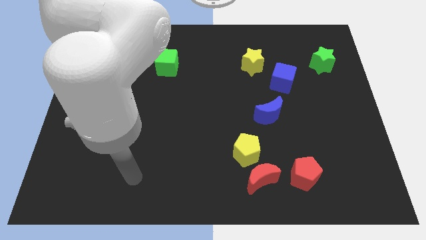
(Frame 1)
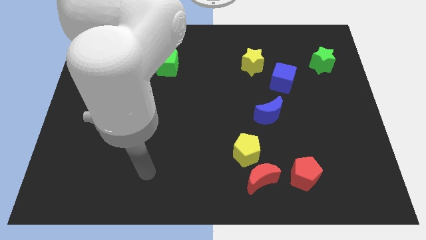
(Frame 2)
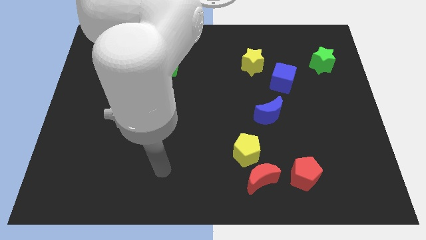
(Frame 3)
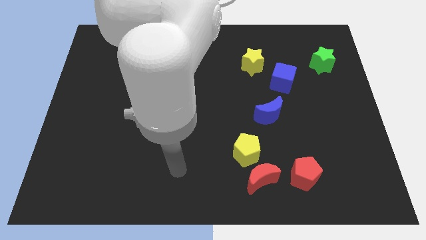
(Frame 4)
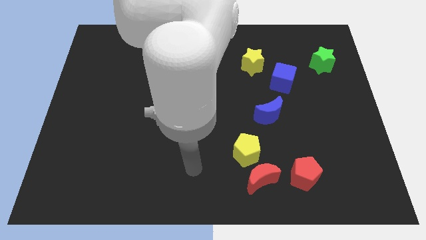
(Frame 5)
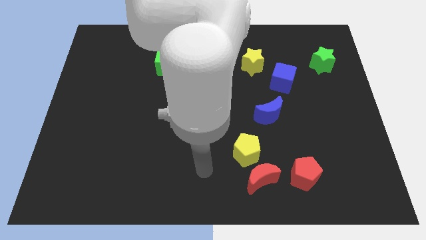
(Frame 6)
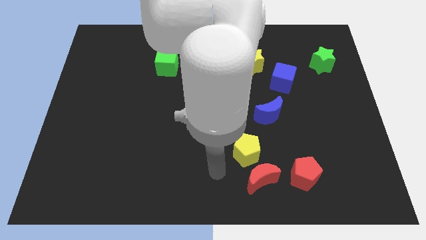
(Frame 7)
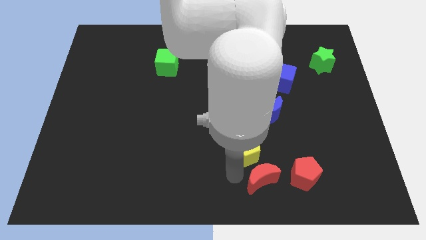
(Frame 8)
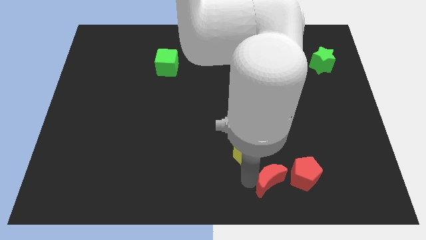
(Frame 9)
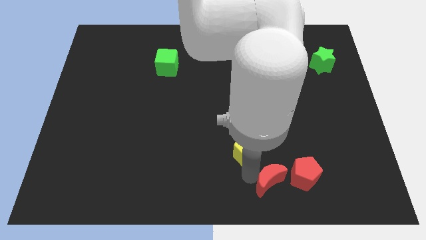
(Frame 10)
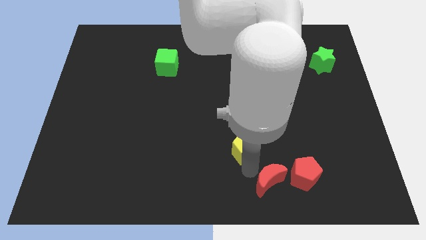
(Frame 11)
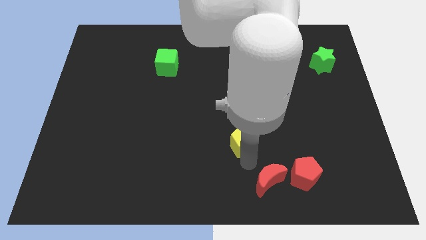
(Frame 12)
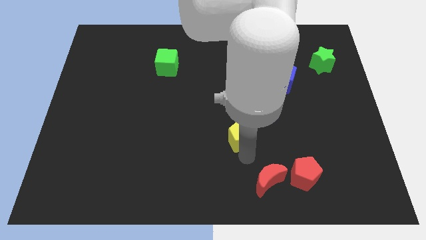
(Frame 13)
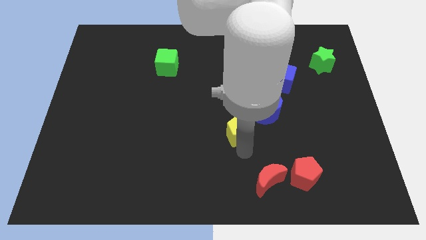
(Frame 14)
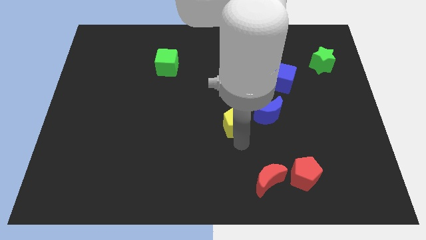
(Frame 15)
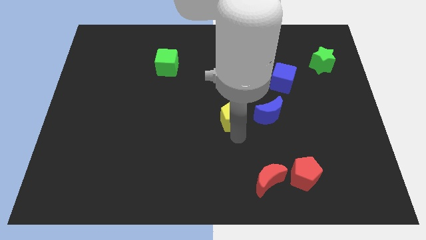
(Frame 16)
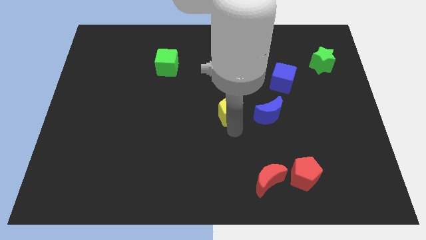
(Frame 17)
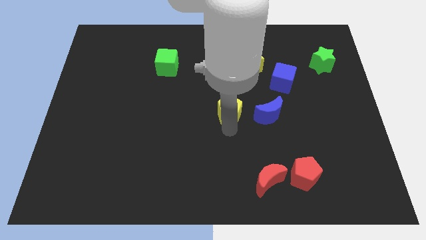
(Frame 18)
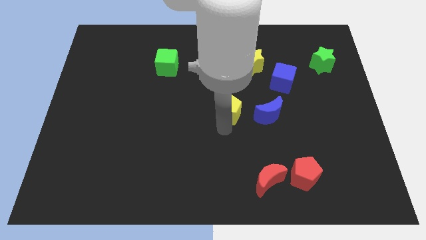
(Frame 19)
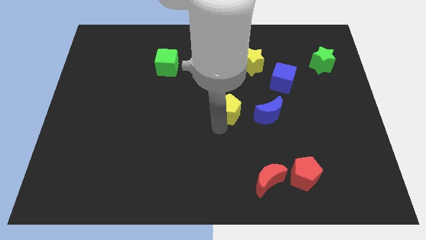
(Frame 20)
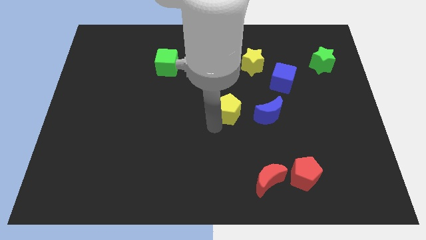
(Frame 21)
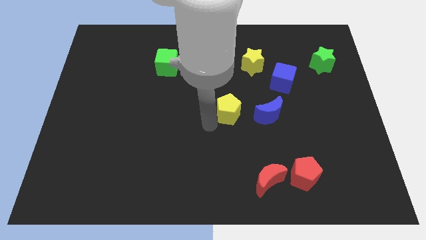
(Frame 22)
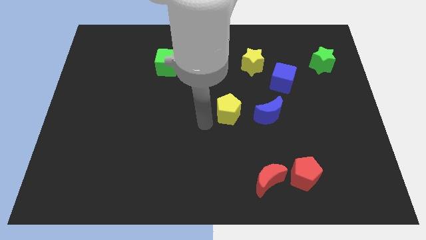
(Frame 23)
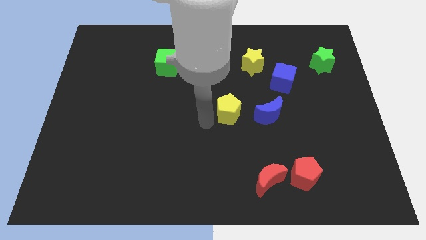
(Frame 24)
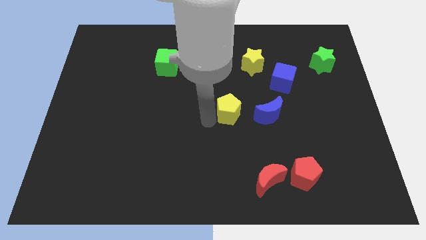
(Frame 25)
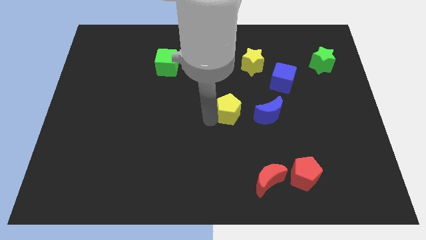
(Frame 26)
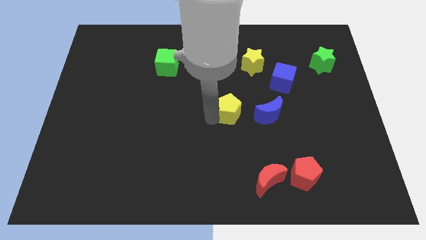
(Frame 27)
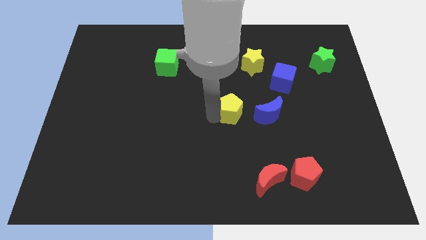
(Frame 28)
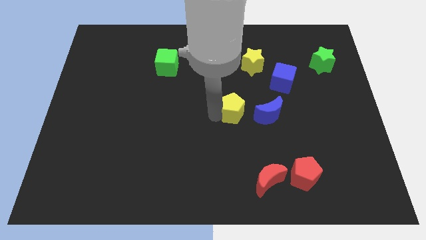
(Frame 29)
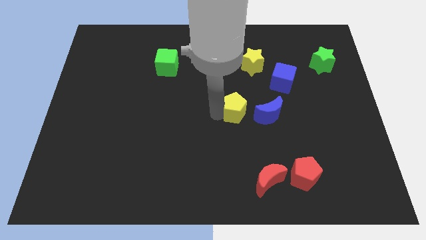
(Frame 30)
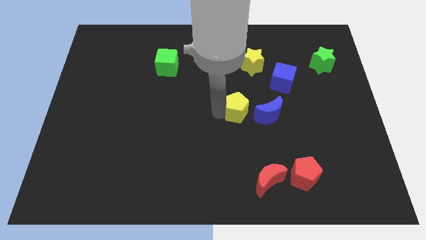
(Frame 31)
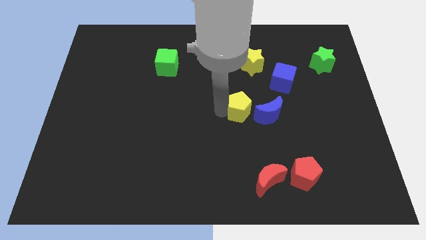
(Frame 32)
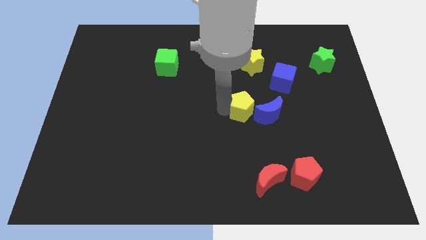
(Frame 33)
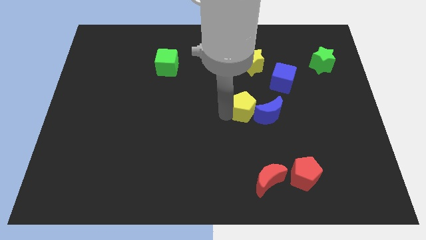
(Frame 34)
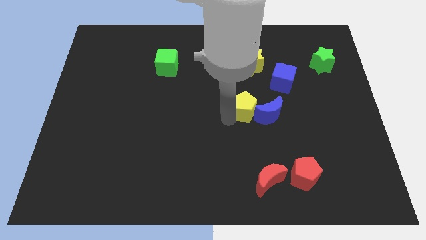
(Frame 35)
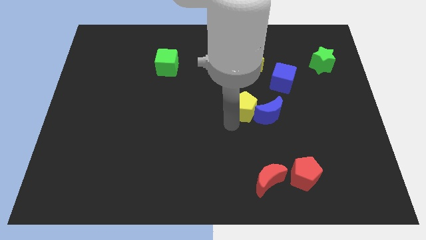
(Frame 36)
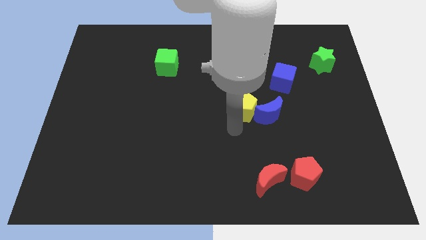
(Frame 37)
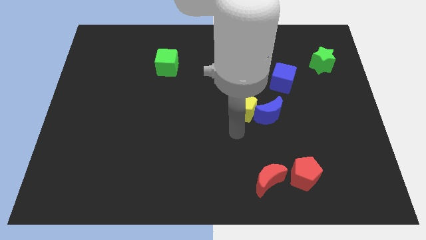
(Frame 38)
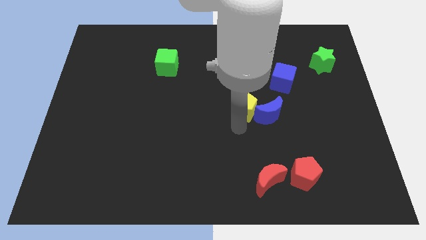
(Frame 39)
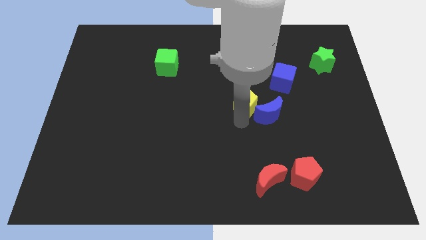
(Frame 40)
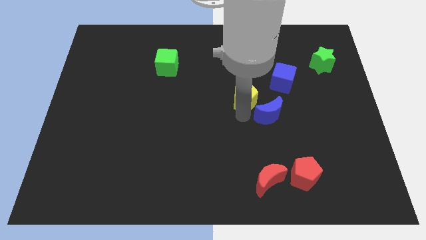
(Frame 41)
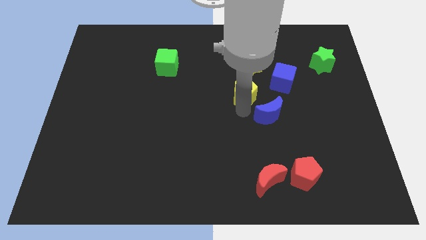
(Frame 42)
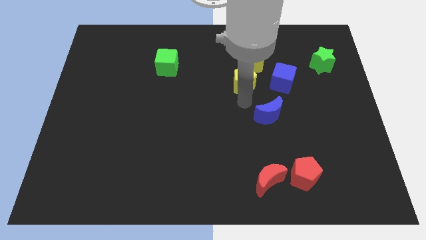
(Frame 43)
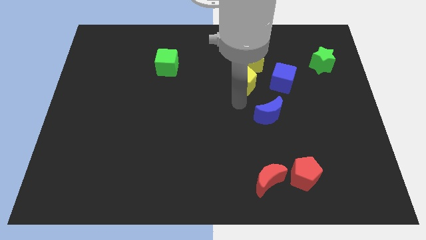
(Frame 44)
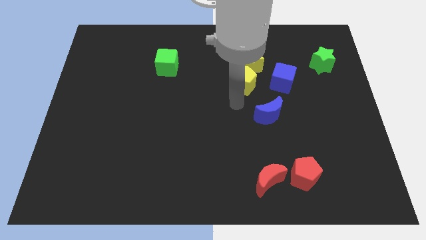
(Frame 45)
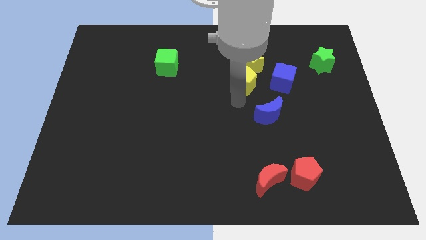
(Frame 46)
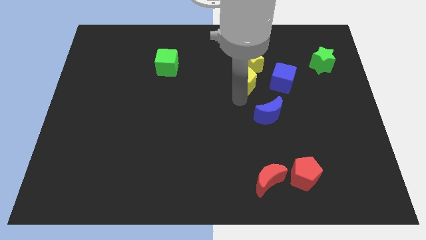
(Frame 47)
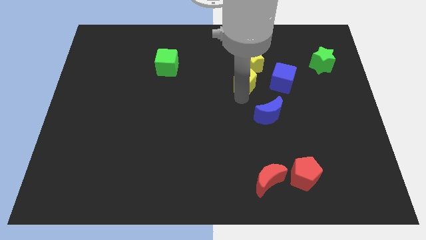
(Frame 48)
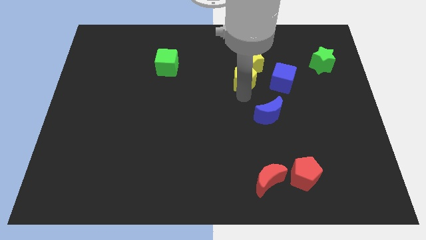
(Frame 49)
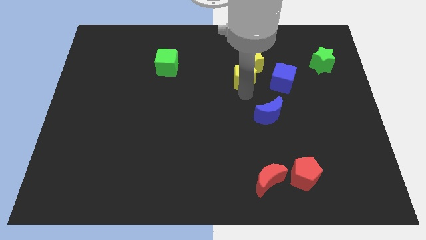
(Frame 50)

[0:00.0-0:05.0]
push the yellow pentagon close to the yellow star

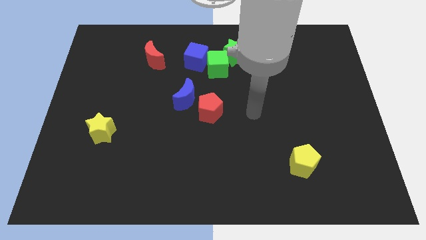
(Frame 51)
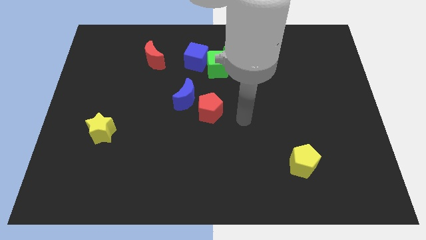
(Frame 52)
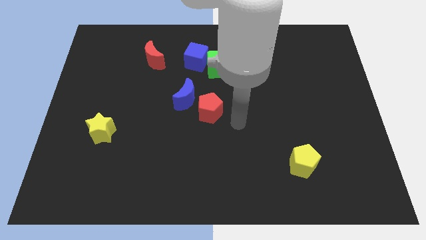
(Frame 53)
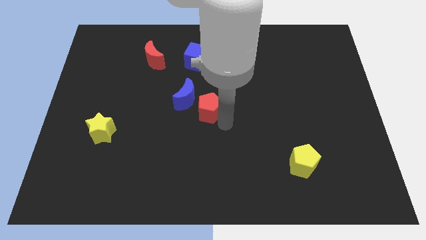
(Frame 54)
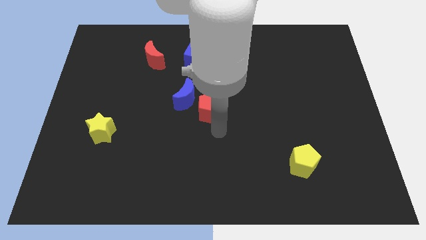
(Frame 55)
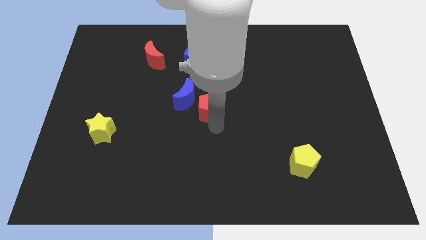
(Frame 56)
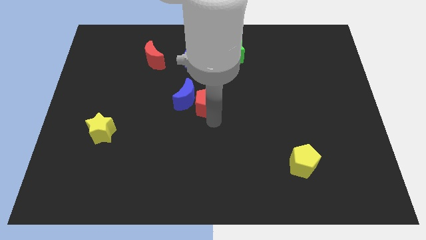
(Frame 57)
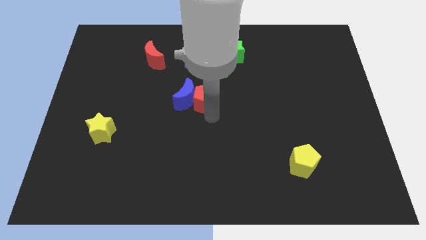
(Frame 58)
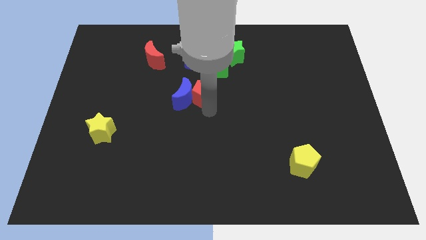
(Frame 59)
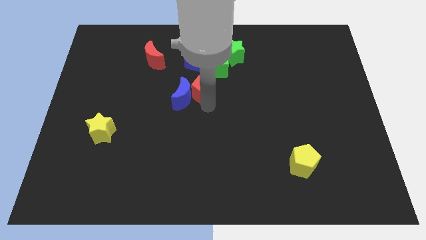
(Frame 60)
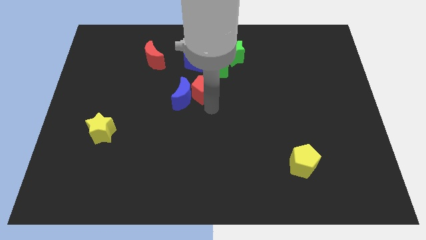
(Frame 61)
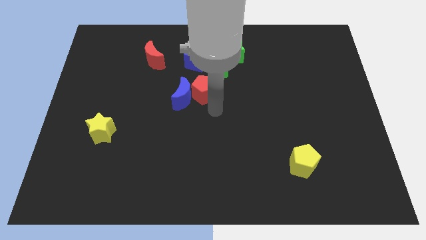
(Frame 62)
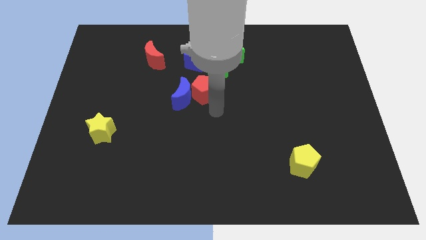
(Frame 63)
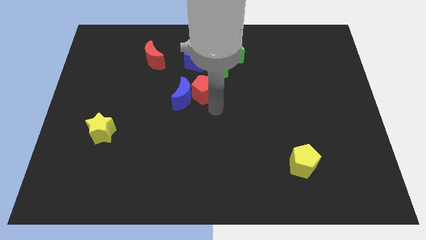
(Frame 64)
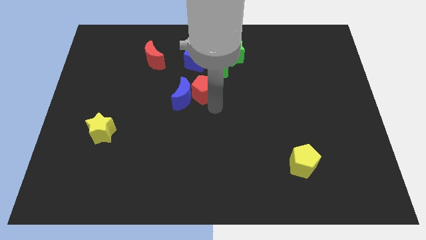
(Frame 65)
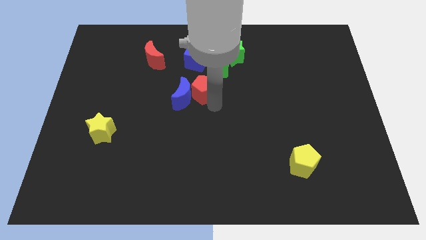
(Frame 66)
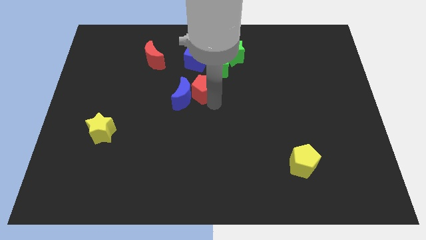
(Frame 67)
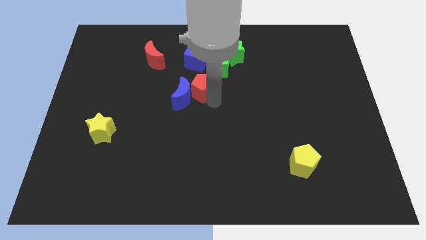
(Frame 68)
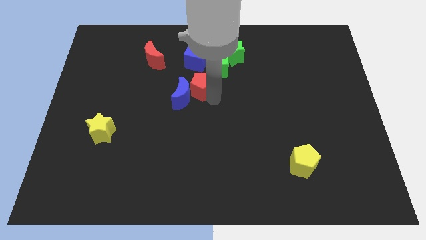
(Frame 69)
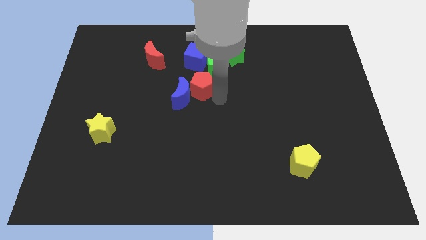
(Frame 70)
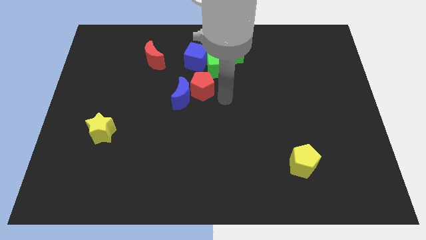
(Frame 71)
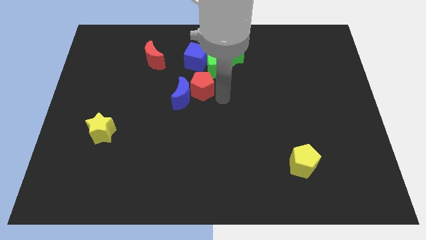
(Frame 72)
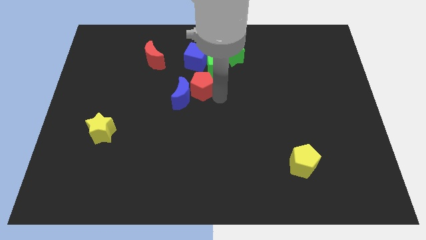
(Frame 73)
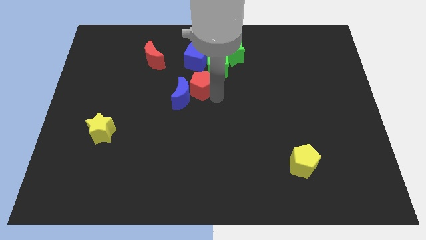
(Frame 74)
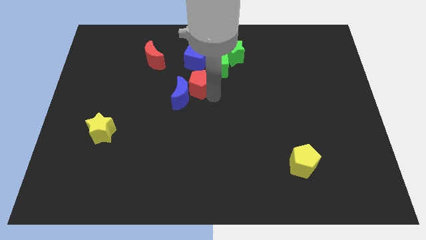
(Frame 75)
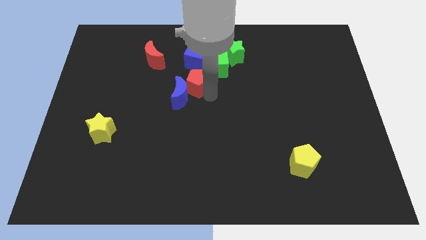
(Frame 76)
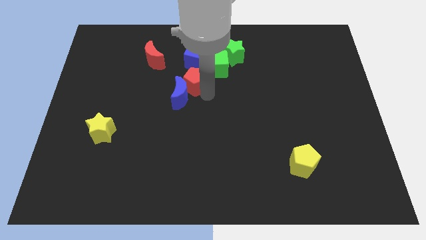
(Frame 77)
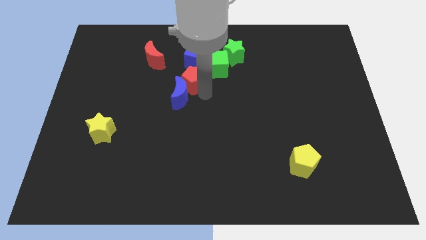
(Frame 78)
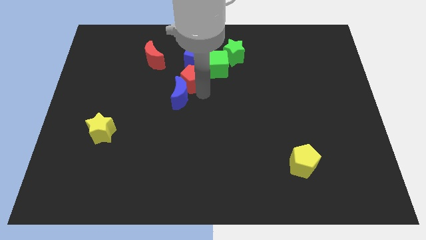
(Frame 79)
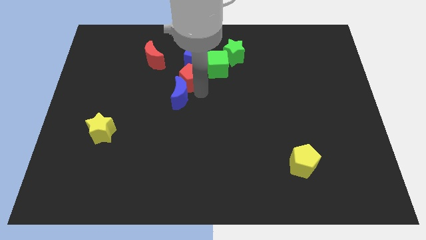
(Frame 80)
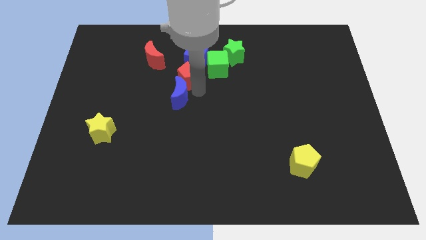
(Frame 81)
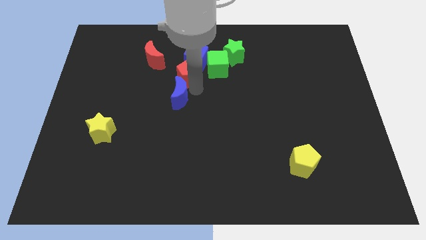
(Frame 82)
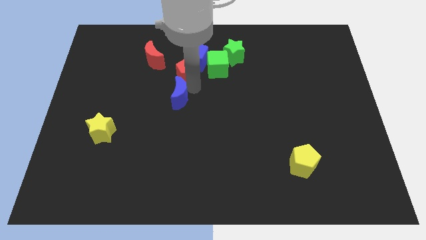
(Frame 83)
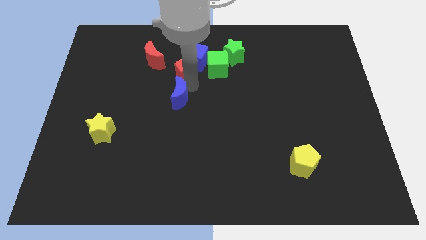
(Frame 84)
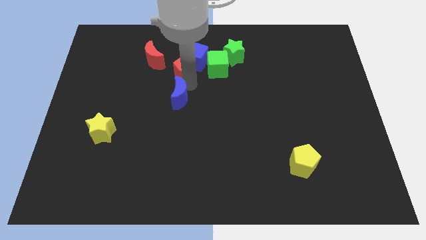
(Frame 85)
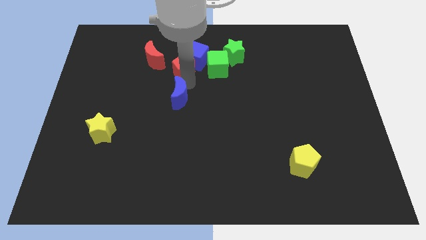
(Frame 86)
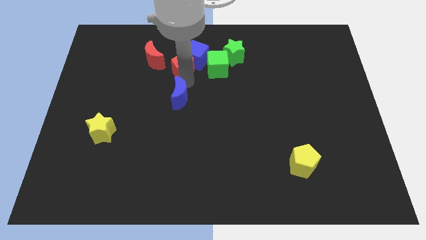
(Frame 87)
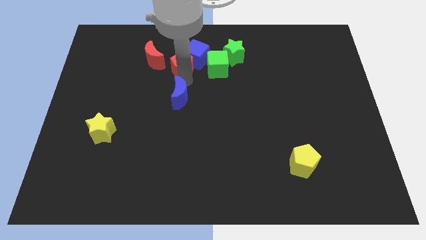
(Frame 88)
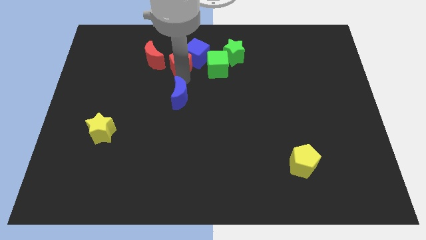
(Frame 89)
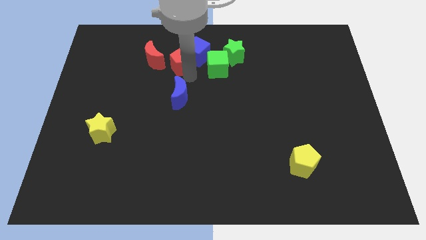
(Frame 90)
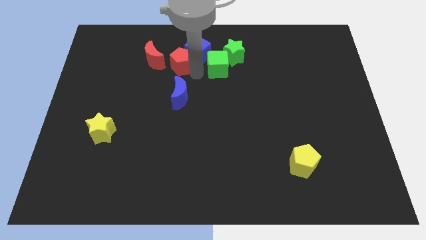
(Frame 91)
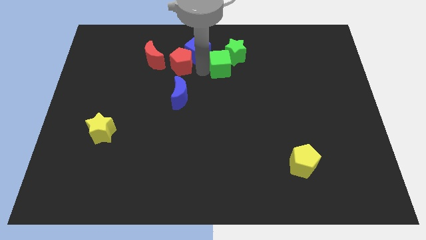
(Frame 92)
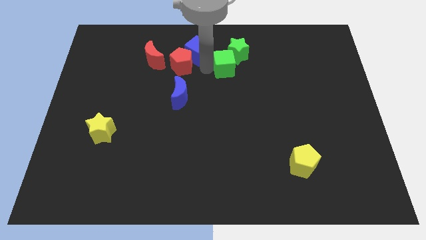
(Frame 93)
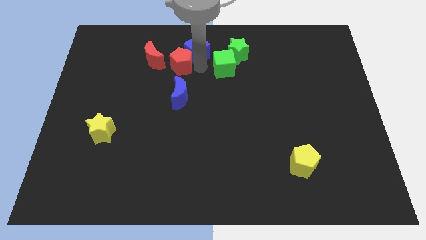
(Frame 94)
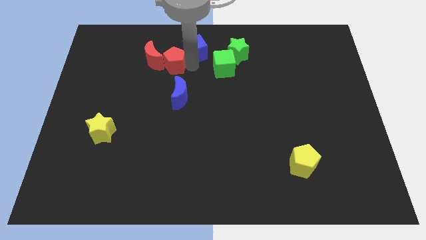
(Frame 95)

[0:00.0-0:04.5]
move the red pentagon to the red moon
